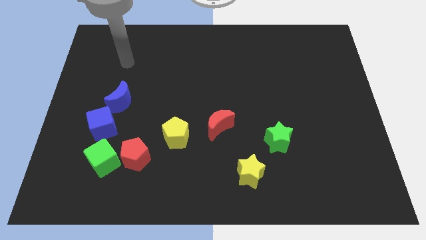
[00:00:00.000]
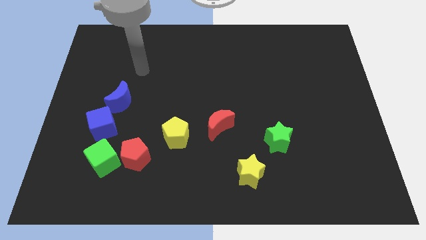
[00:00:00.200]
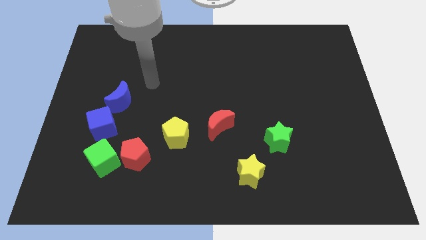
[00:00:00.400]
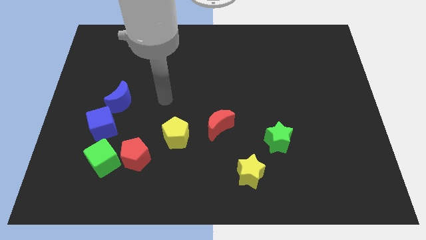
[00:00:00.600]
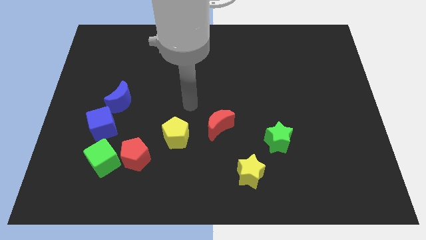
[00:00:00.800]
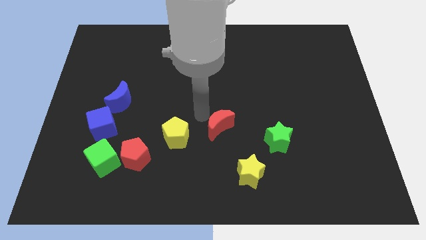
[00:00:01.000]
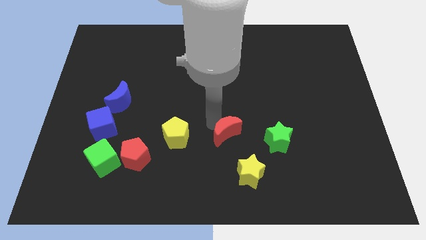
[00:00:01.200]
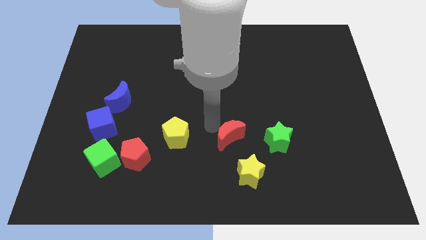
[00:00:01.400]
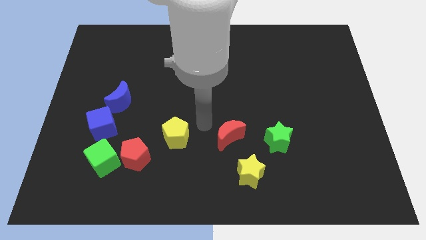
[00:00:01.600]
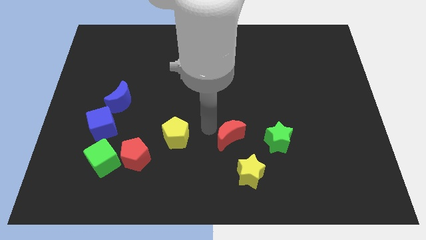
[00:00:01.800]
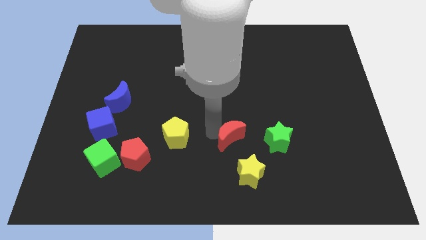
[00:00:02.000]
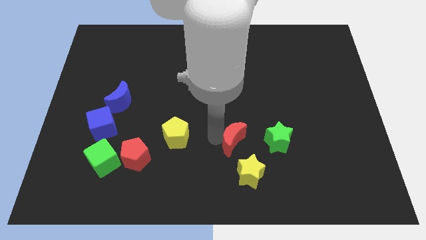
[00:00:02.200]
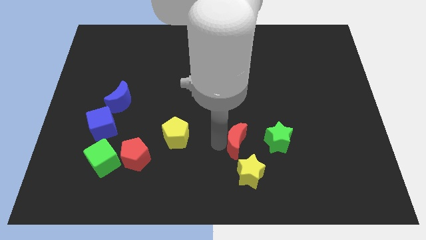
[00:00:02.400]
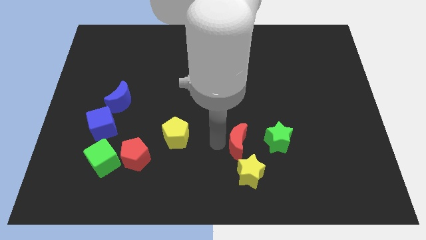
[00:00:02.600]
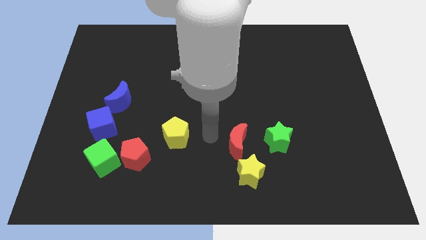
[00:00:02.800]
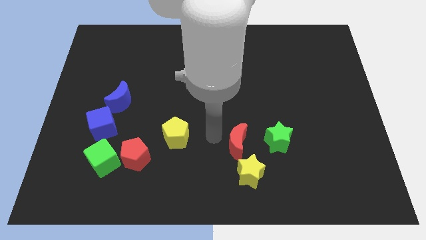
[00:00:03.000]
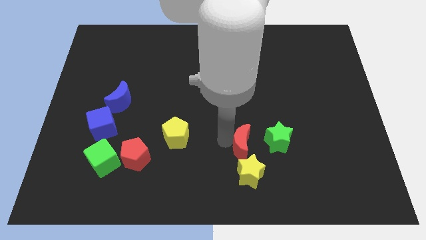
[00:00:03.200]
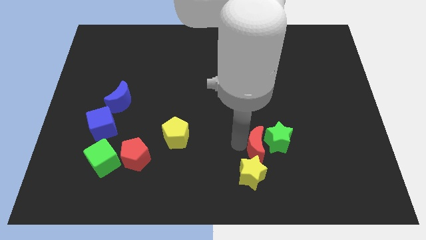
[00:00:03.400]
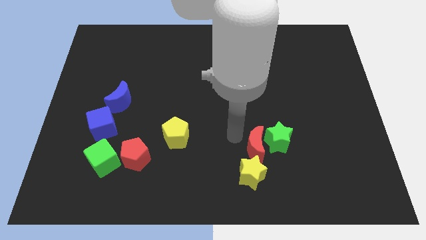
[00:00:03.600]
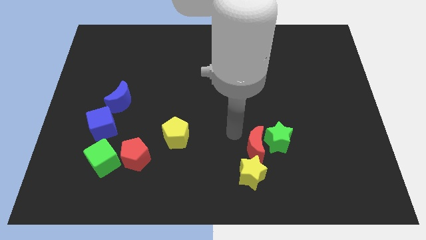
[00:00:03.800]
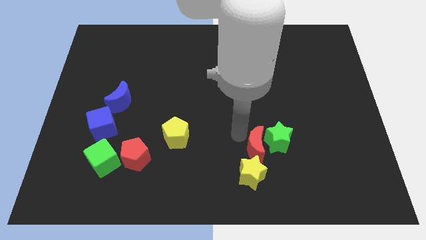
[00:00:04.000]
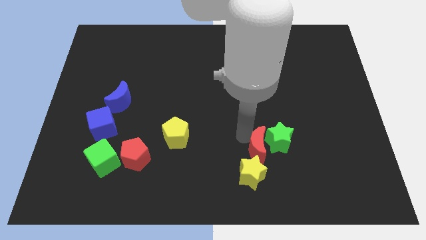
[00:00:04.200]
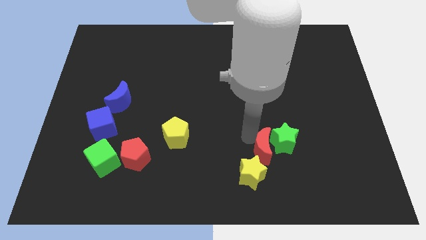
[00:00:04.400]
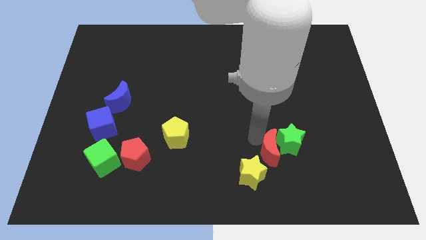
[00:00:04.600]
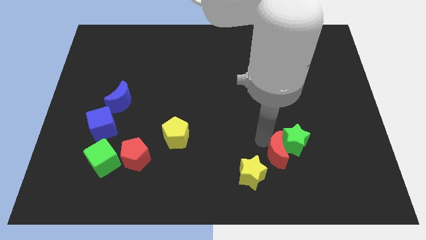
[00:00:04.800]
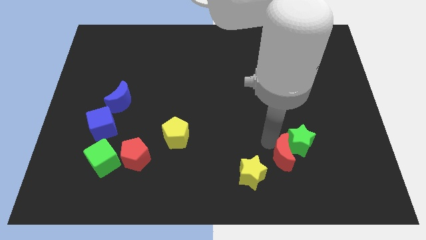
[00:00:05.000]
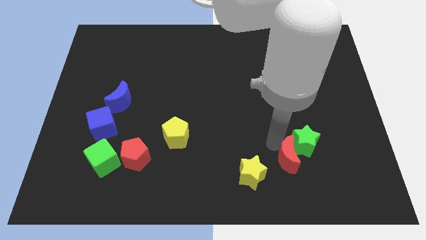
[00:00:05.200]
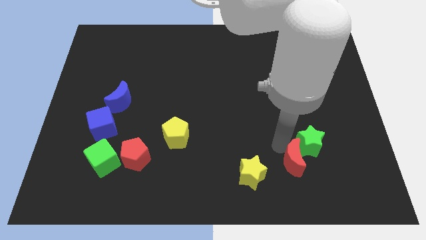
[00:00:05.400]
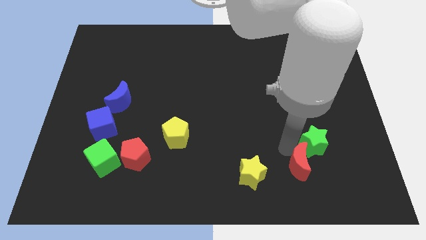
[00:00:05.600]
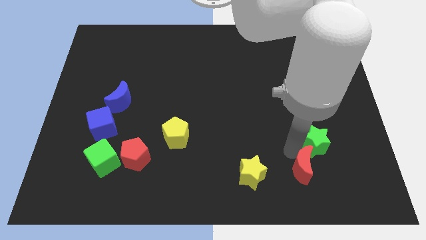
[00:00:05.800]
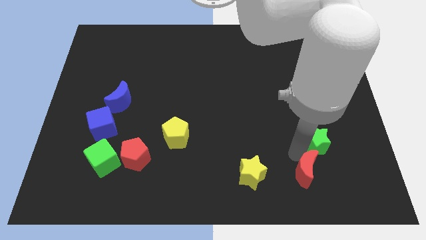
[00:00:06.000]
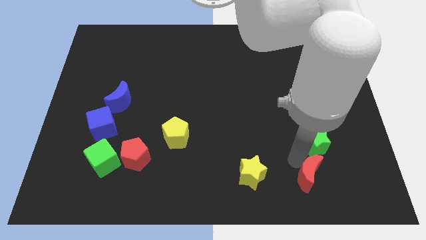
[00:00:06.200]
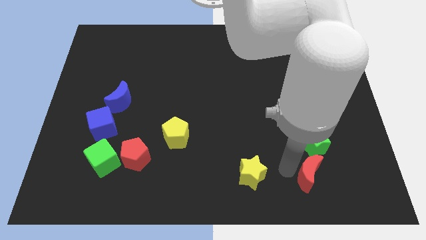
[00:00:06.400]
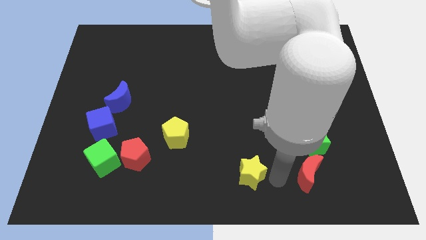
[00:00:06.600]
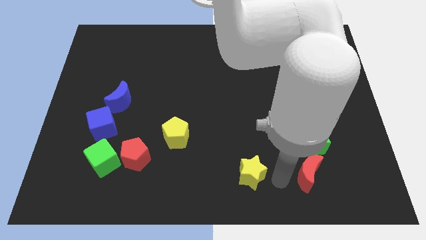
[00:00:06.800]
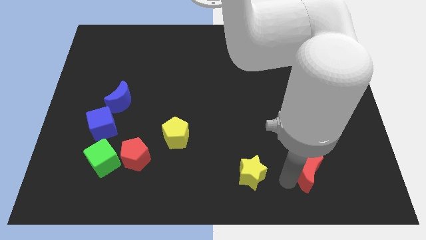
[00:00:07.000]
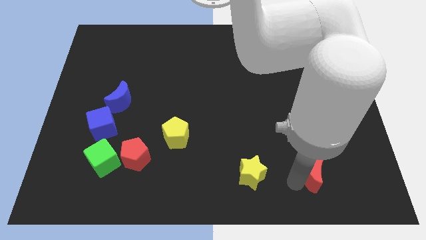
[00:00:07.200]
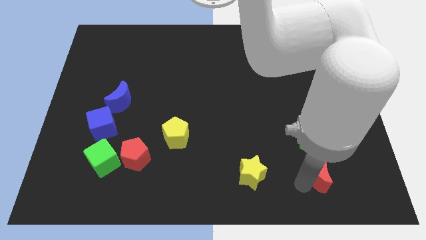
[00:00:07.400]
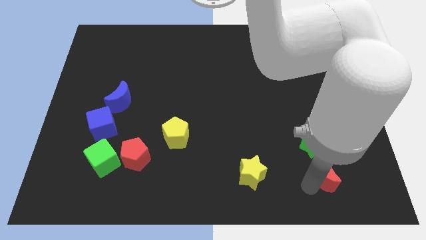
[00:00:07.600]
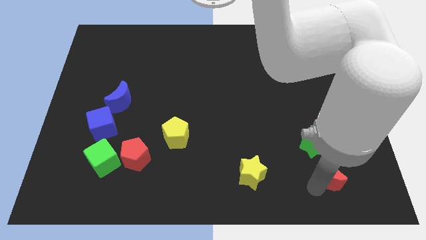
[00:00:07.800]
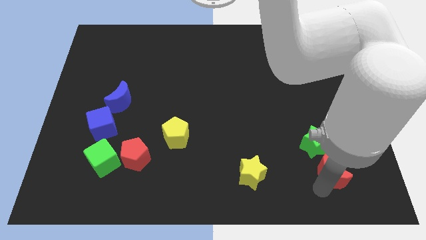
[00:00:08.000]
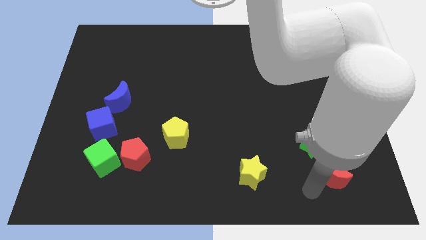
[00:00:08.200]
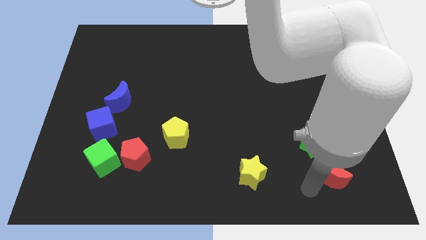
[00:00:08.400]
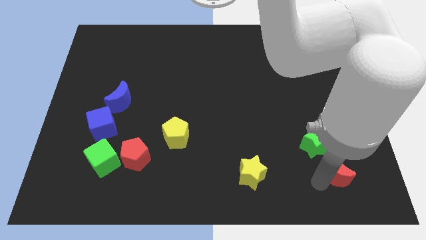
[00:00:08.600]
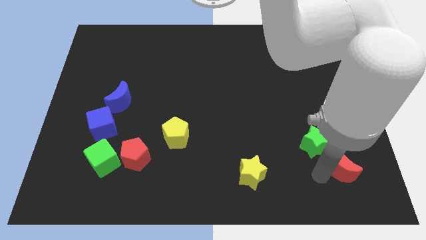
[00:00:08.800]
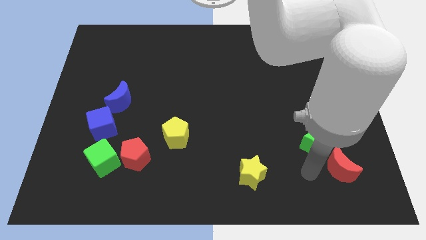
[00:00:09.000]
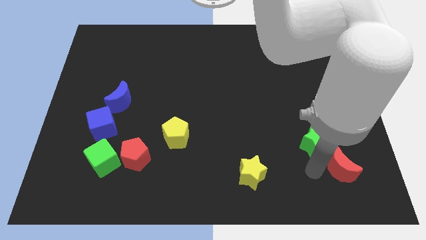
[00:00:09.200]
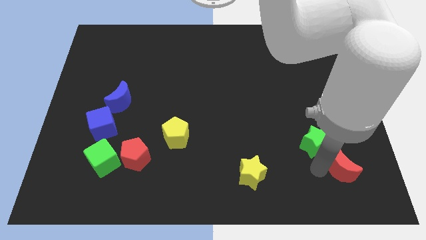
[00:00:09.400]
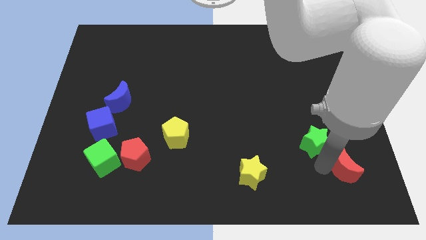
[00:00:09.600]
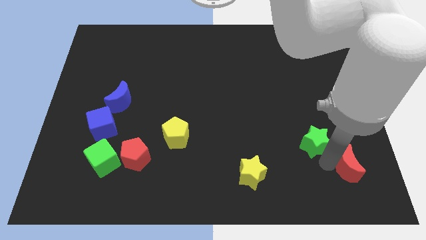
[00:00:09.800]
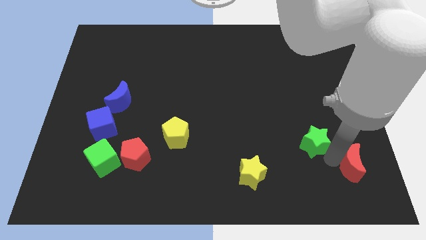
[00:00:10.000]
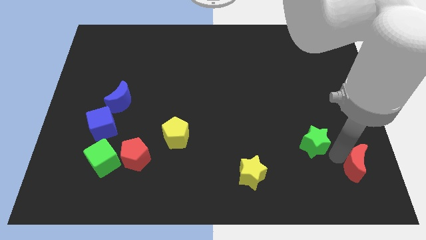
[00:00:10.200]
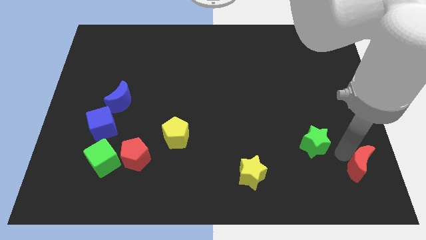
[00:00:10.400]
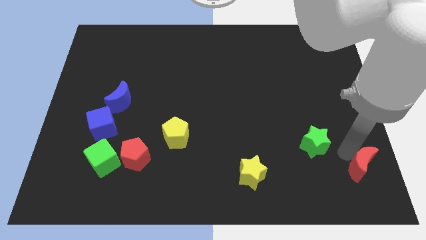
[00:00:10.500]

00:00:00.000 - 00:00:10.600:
move the red moon to the bottom right of the board

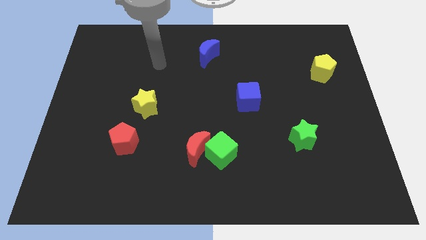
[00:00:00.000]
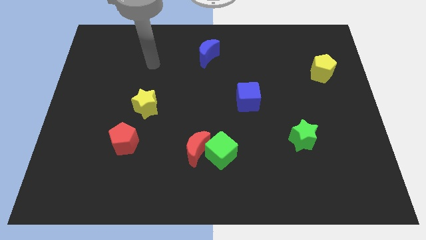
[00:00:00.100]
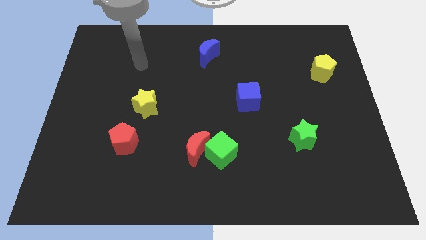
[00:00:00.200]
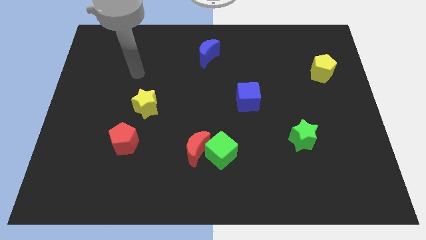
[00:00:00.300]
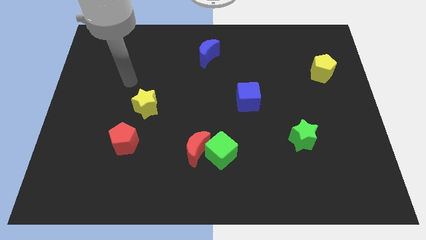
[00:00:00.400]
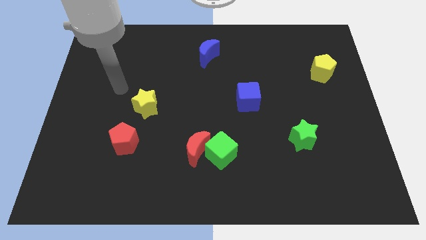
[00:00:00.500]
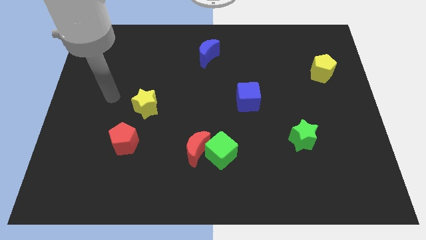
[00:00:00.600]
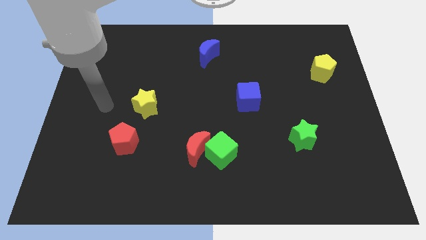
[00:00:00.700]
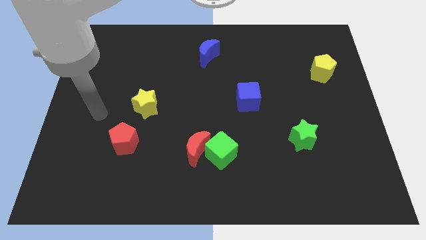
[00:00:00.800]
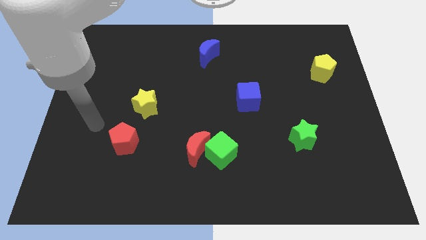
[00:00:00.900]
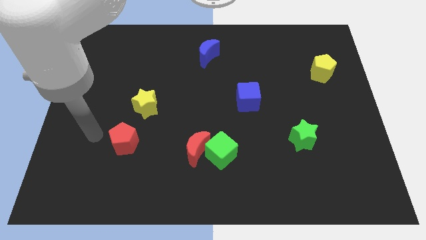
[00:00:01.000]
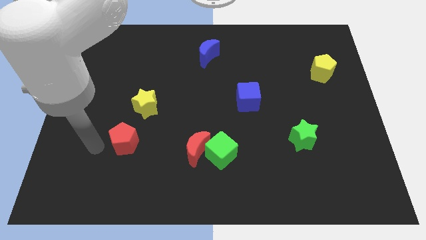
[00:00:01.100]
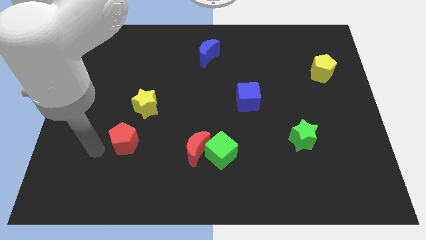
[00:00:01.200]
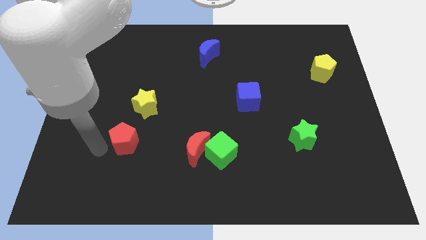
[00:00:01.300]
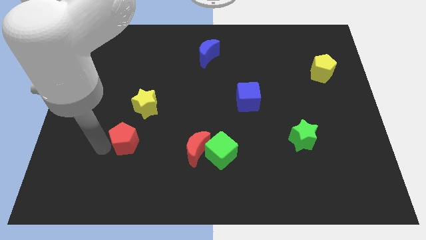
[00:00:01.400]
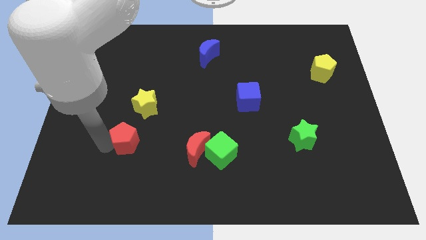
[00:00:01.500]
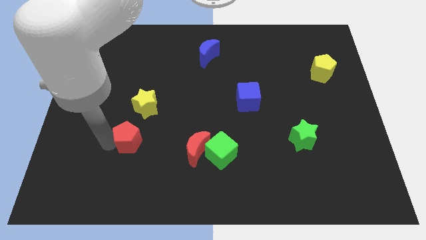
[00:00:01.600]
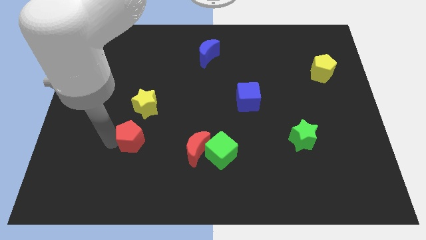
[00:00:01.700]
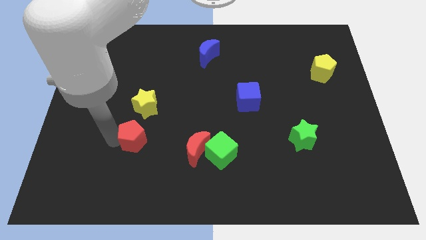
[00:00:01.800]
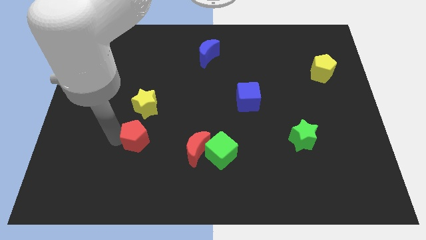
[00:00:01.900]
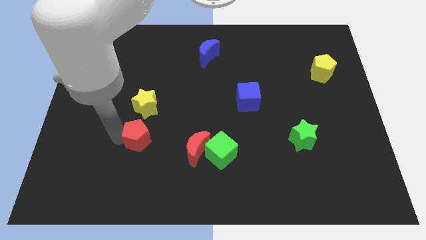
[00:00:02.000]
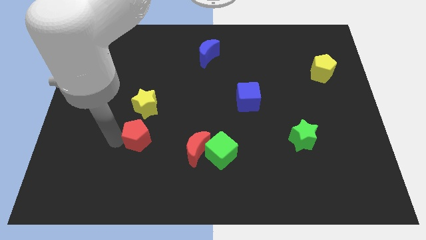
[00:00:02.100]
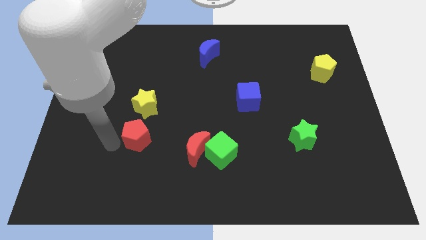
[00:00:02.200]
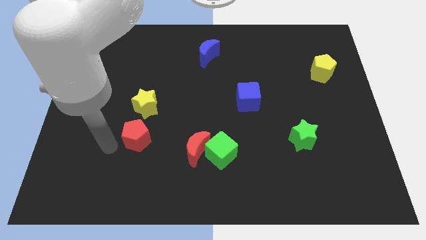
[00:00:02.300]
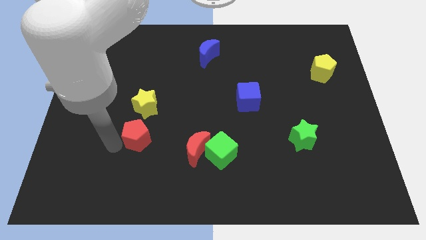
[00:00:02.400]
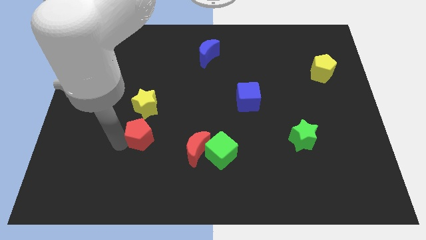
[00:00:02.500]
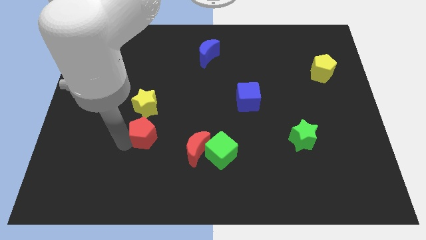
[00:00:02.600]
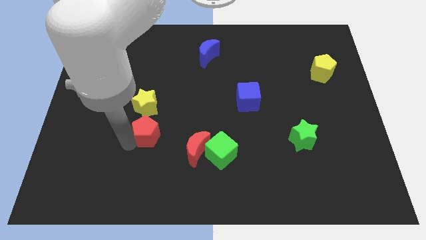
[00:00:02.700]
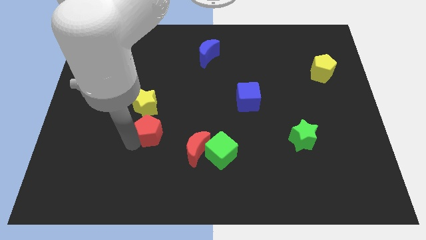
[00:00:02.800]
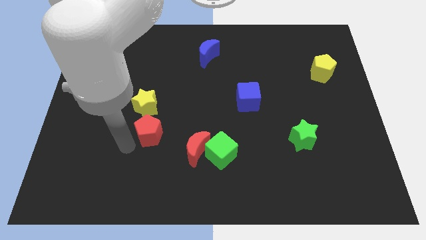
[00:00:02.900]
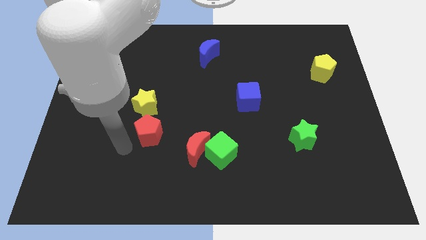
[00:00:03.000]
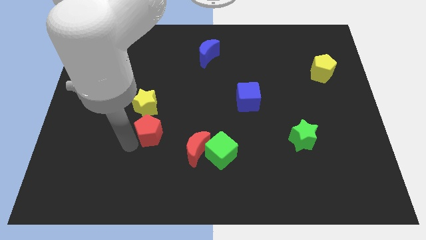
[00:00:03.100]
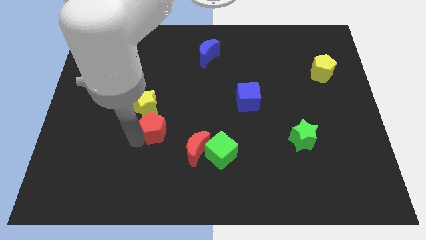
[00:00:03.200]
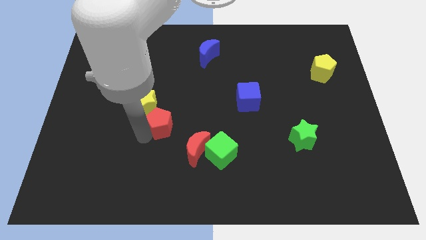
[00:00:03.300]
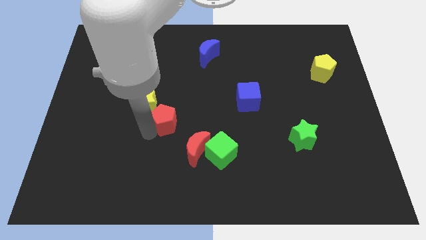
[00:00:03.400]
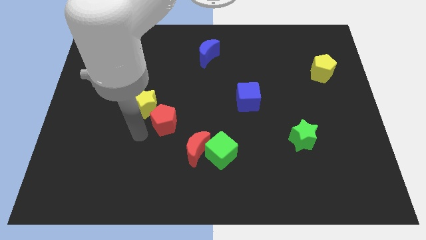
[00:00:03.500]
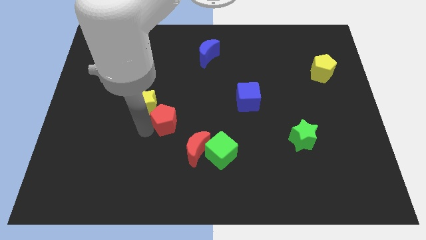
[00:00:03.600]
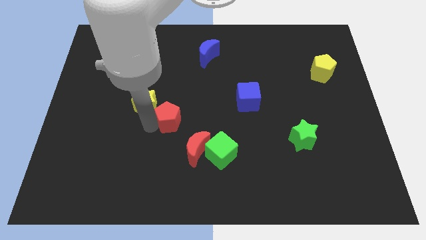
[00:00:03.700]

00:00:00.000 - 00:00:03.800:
move the red pentagon to the center
